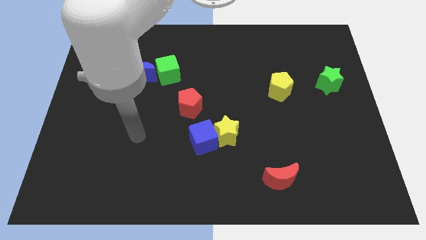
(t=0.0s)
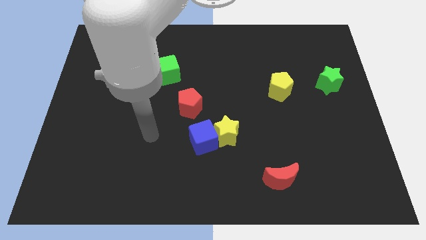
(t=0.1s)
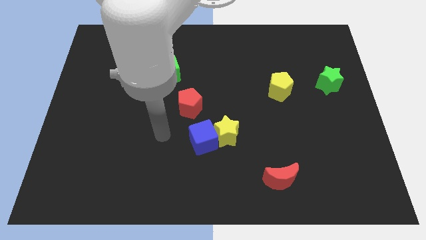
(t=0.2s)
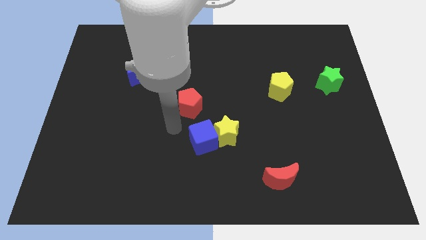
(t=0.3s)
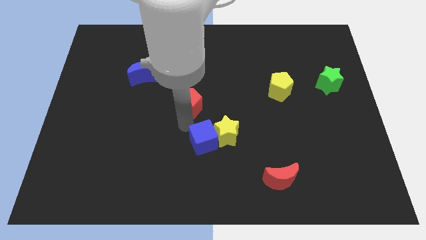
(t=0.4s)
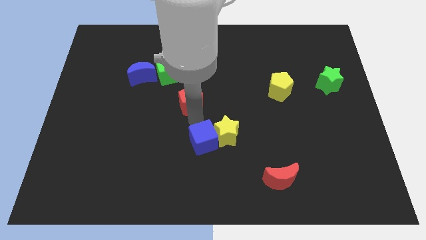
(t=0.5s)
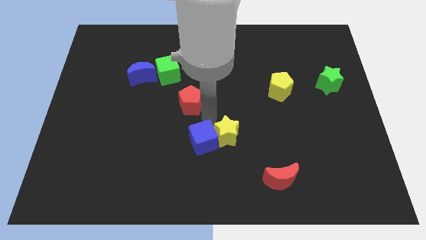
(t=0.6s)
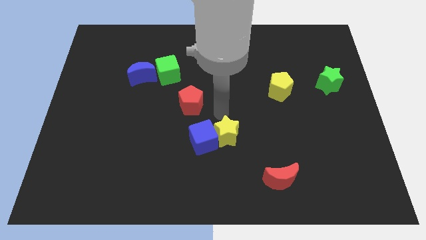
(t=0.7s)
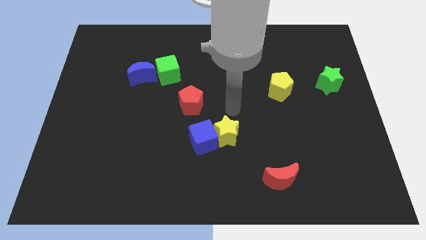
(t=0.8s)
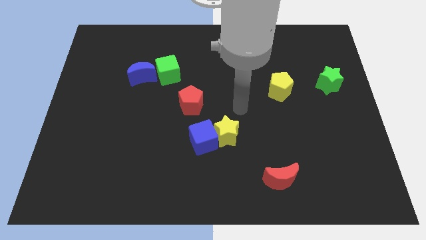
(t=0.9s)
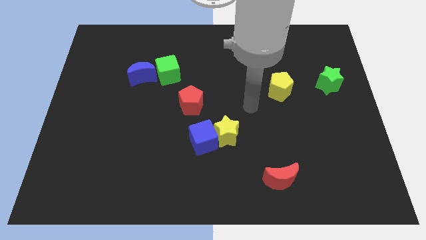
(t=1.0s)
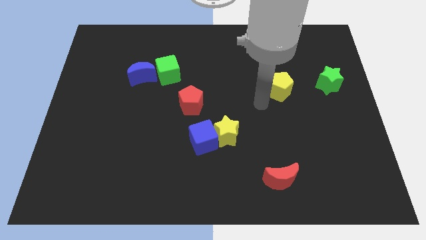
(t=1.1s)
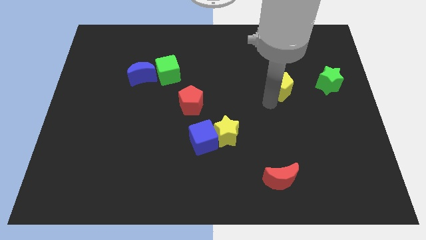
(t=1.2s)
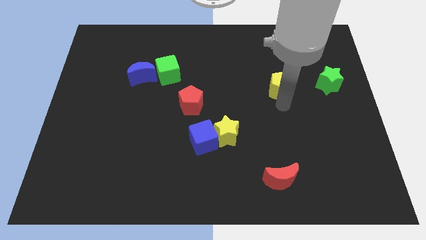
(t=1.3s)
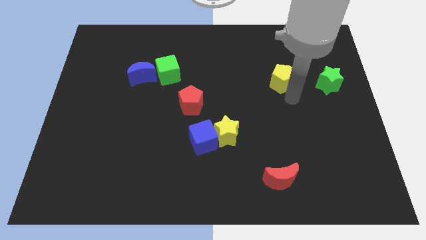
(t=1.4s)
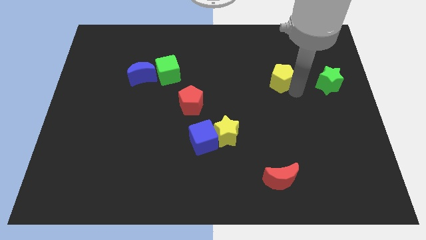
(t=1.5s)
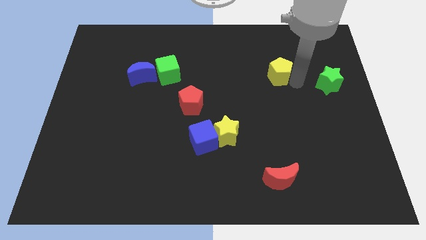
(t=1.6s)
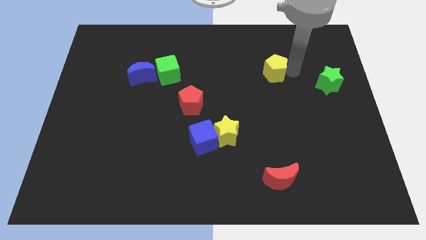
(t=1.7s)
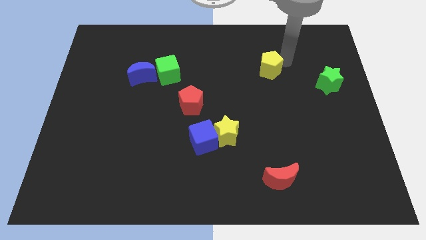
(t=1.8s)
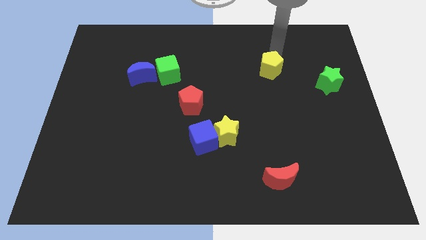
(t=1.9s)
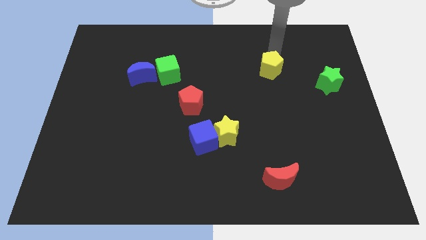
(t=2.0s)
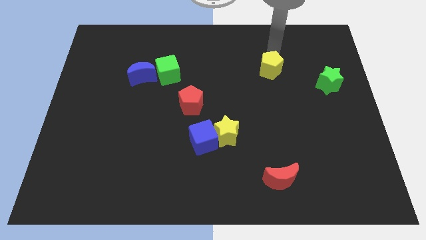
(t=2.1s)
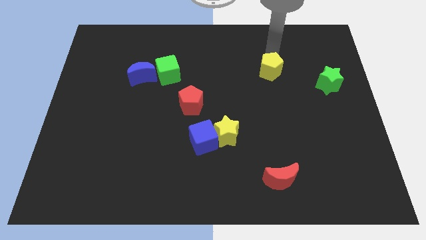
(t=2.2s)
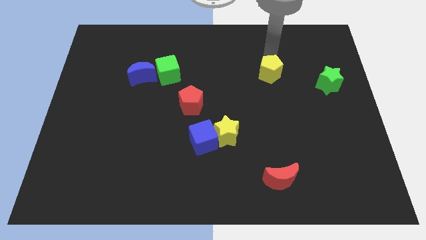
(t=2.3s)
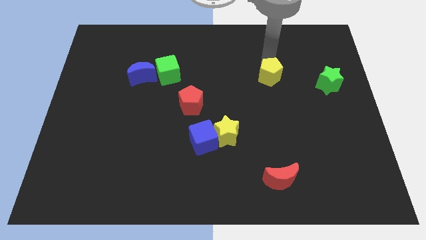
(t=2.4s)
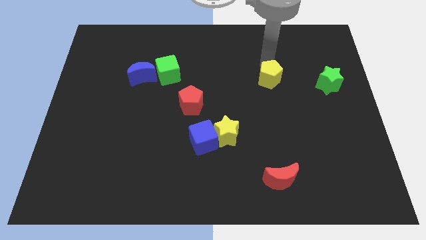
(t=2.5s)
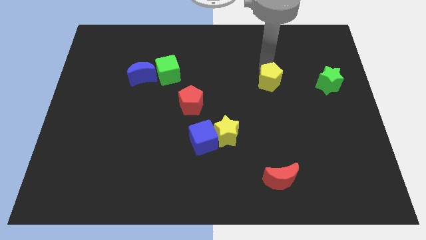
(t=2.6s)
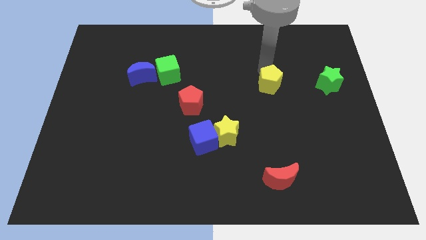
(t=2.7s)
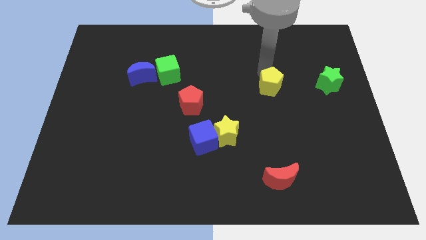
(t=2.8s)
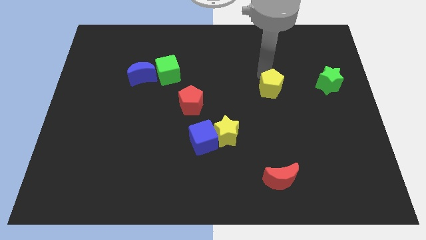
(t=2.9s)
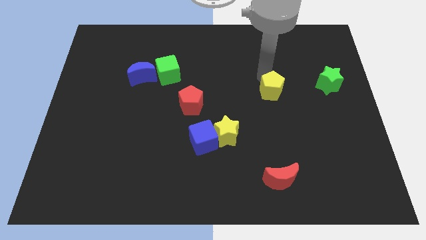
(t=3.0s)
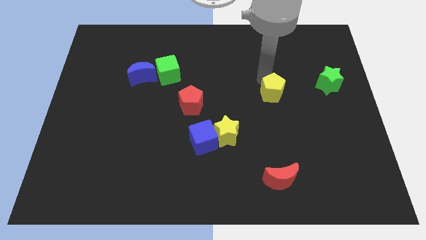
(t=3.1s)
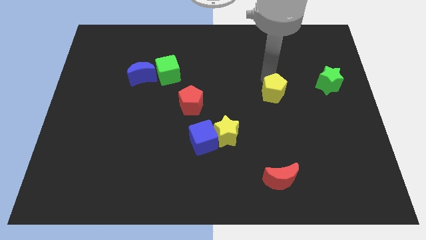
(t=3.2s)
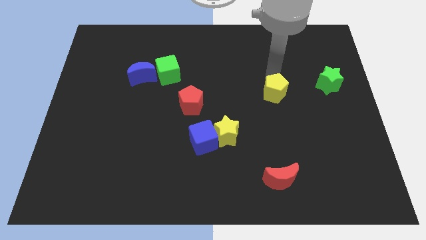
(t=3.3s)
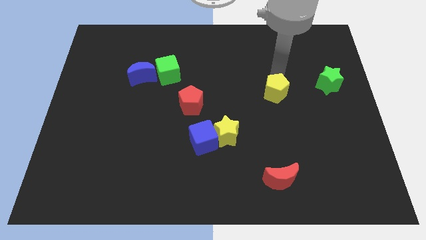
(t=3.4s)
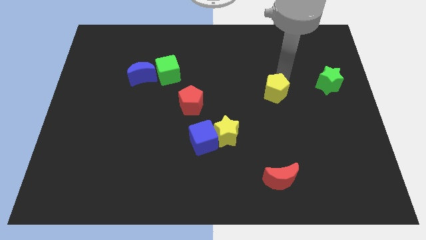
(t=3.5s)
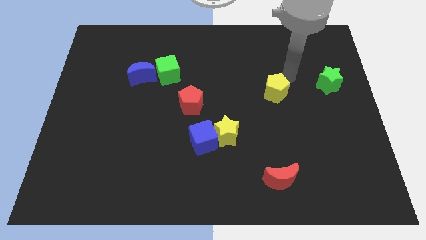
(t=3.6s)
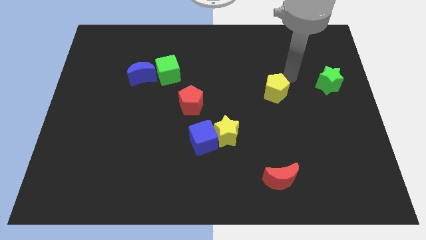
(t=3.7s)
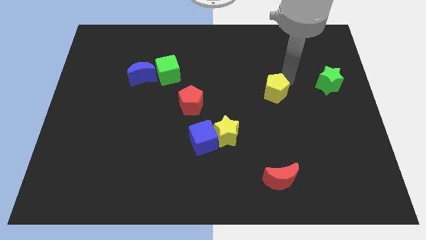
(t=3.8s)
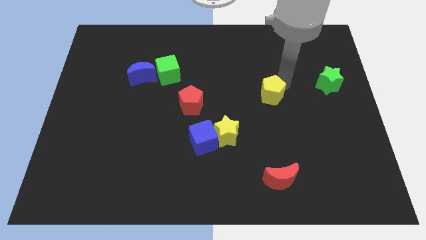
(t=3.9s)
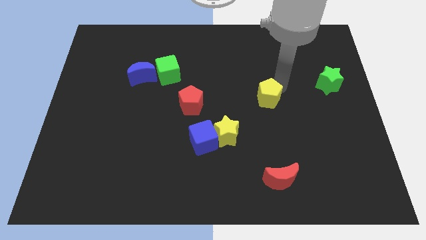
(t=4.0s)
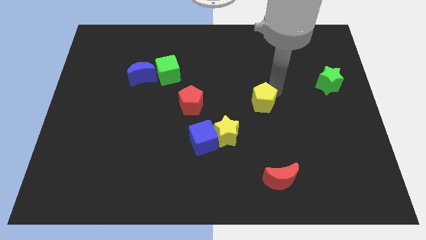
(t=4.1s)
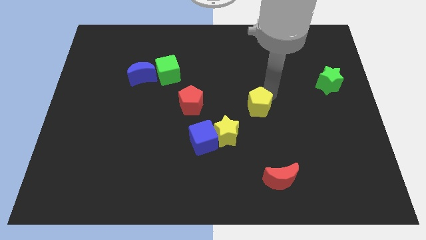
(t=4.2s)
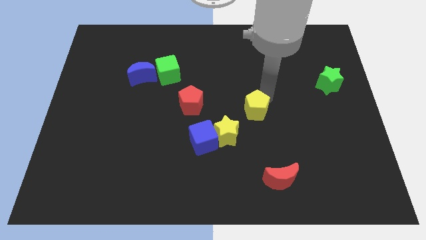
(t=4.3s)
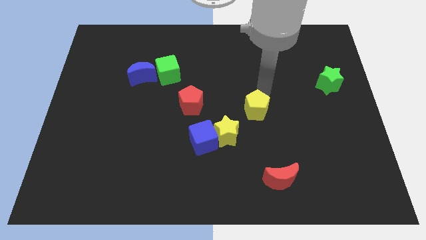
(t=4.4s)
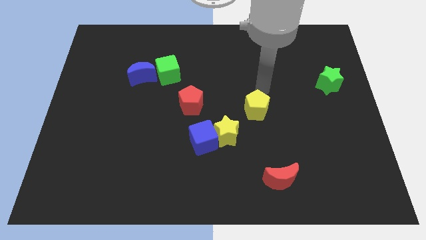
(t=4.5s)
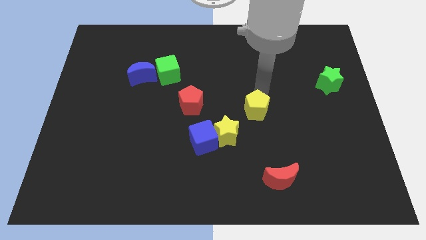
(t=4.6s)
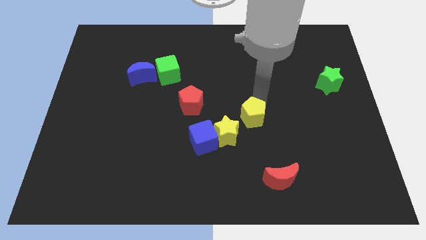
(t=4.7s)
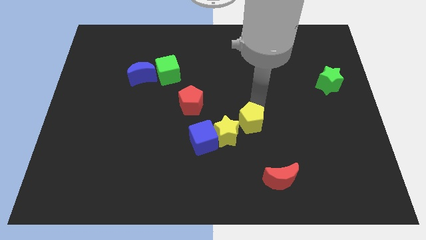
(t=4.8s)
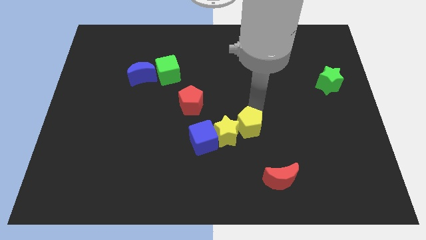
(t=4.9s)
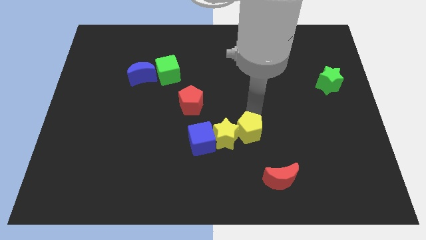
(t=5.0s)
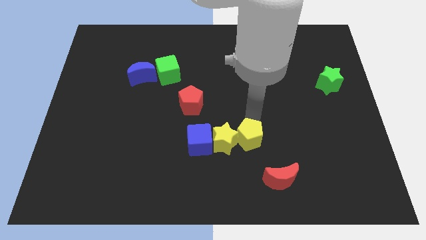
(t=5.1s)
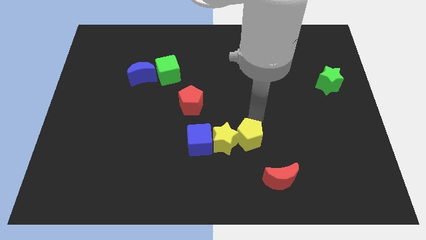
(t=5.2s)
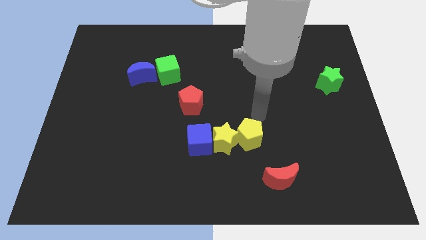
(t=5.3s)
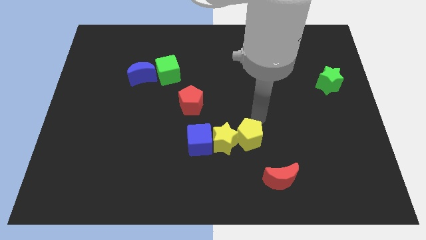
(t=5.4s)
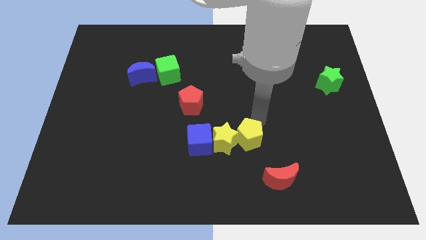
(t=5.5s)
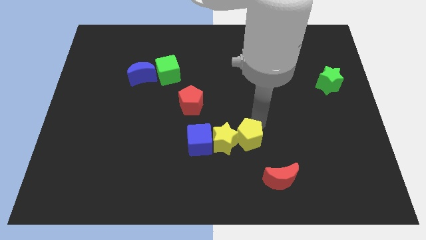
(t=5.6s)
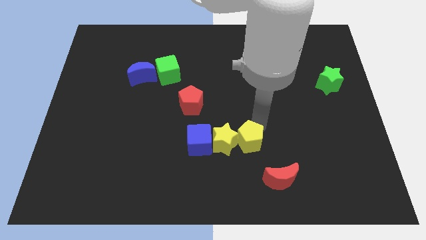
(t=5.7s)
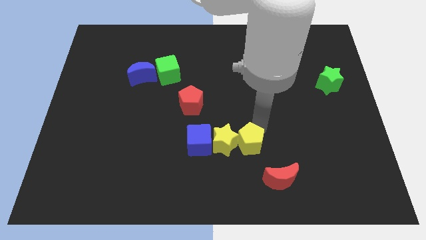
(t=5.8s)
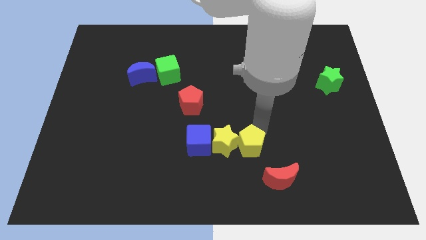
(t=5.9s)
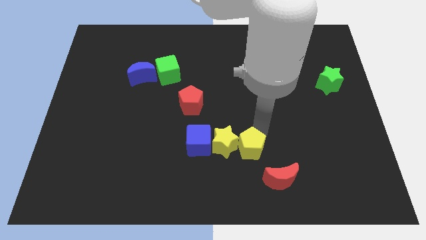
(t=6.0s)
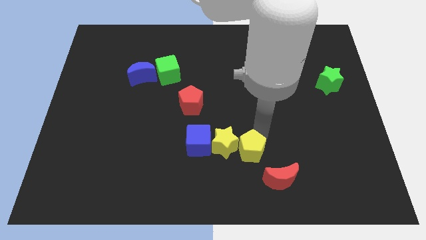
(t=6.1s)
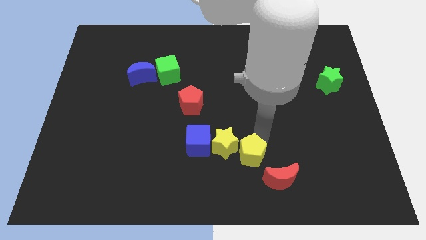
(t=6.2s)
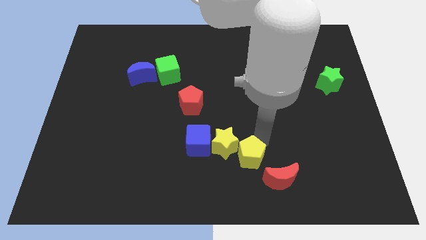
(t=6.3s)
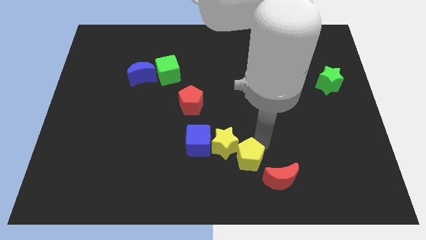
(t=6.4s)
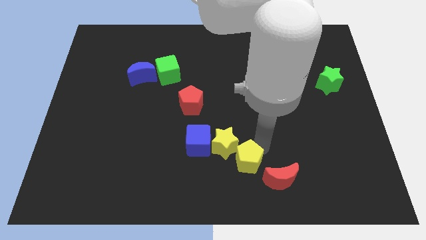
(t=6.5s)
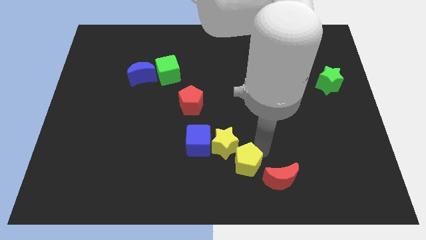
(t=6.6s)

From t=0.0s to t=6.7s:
move the yellow pentagon to the bottom

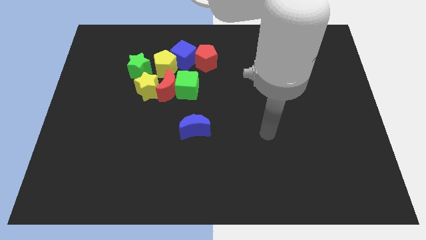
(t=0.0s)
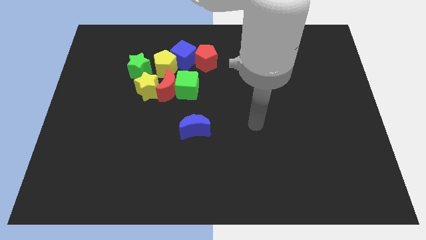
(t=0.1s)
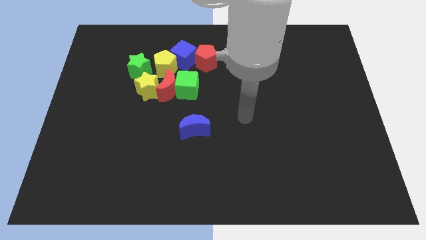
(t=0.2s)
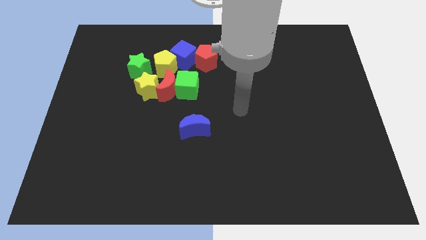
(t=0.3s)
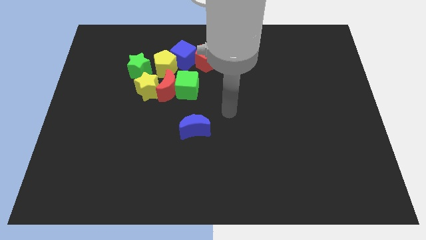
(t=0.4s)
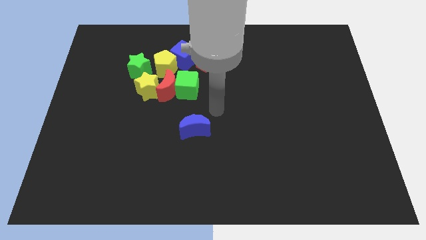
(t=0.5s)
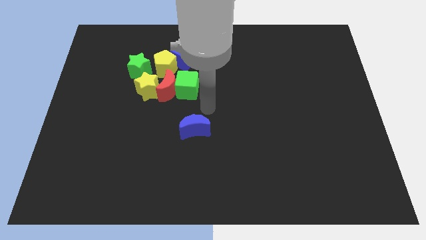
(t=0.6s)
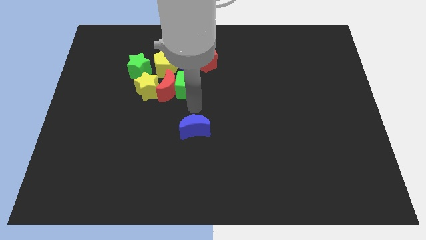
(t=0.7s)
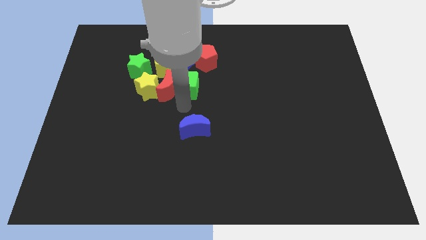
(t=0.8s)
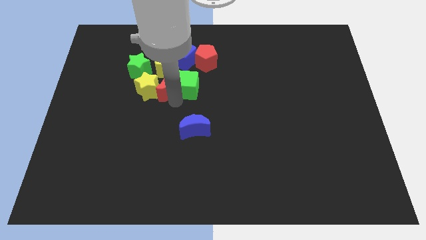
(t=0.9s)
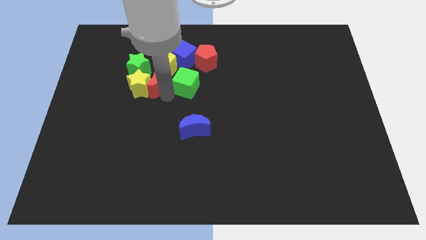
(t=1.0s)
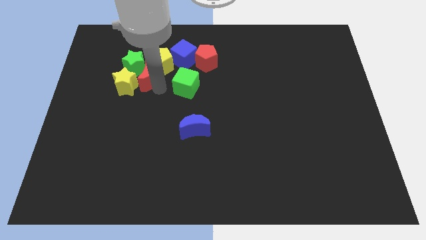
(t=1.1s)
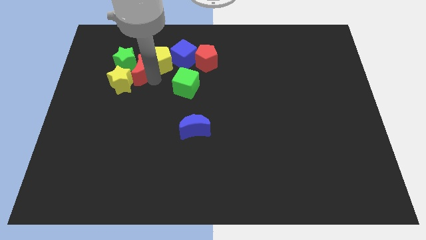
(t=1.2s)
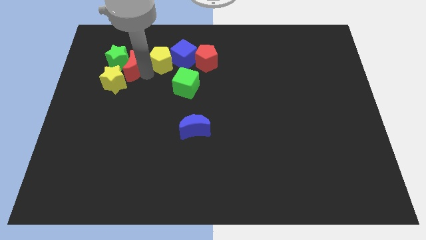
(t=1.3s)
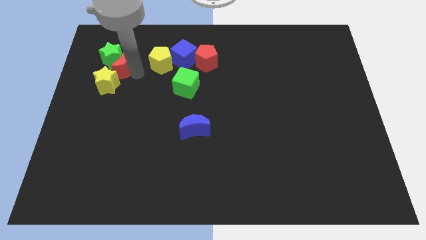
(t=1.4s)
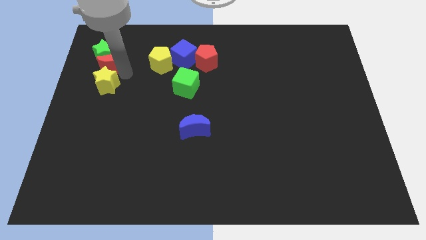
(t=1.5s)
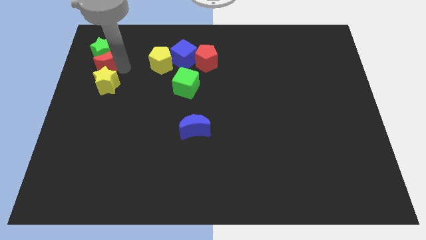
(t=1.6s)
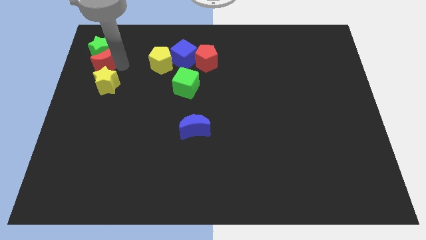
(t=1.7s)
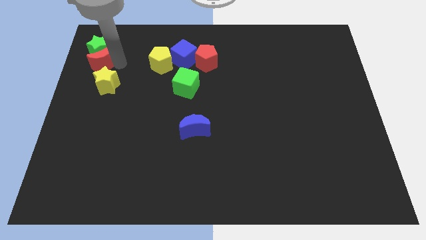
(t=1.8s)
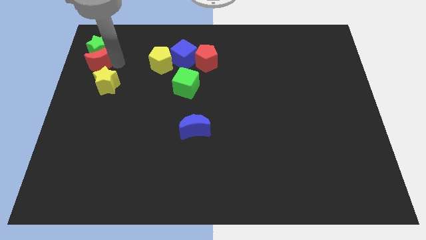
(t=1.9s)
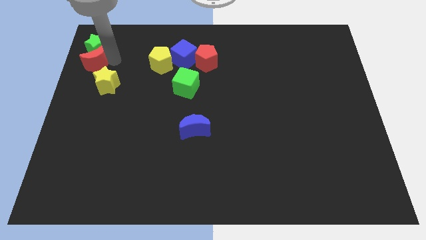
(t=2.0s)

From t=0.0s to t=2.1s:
move the green star to the top left corner
